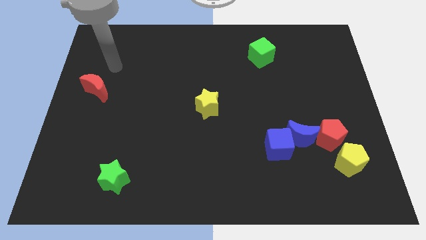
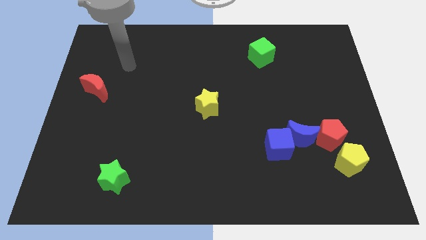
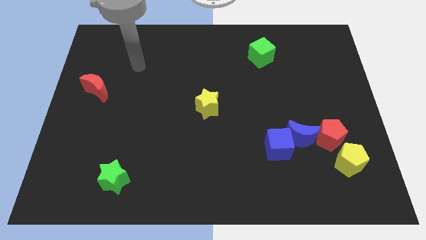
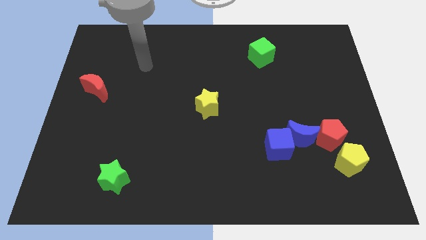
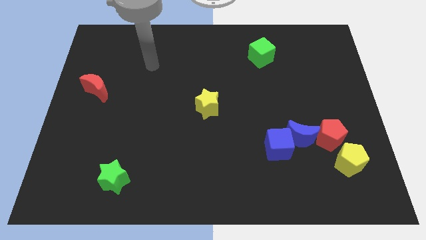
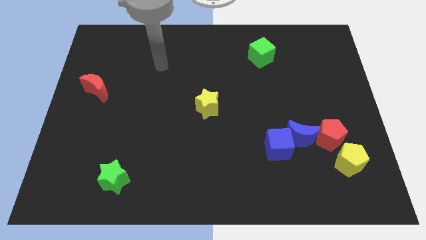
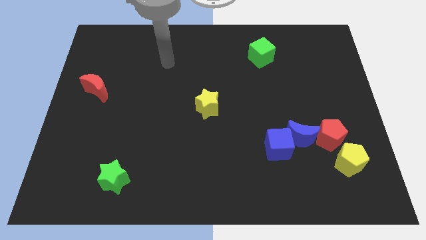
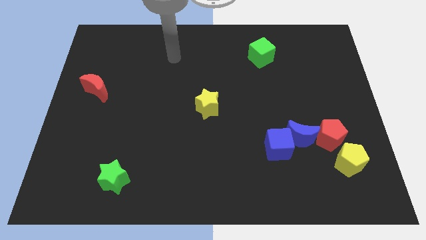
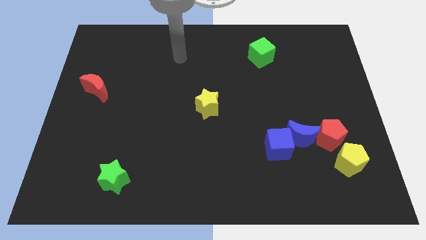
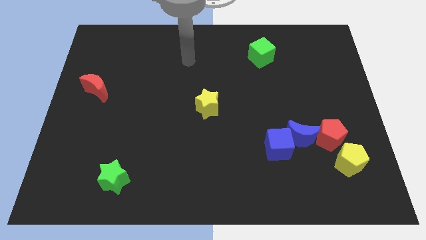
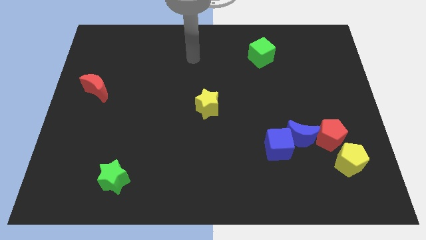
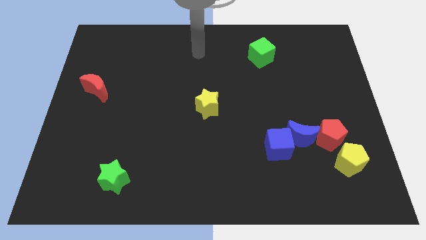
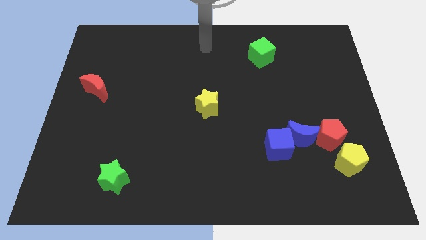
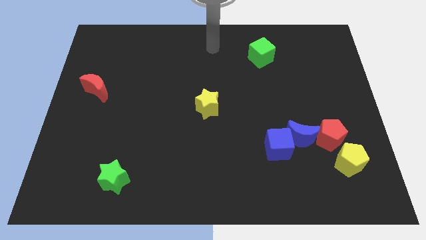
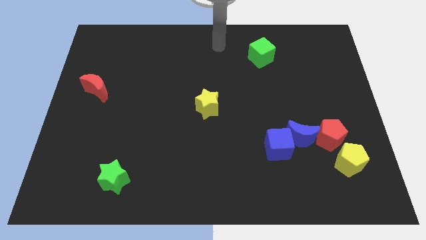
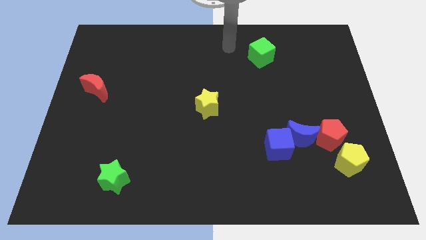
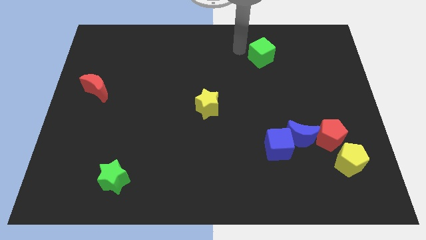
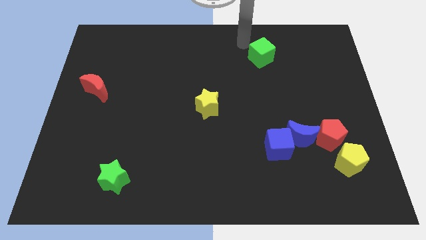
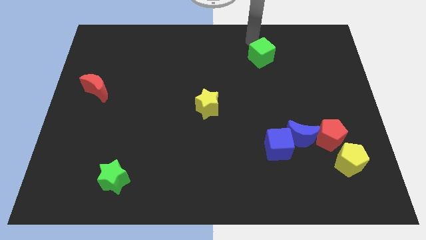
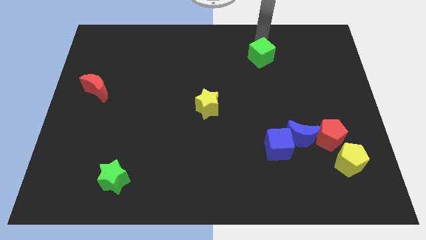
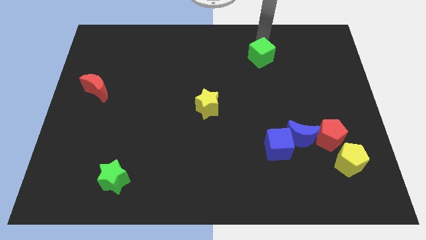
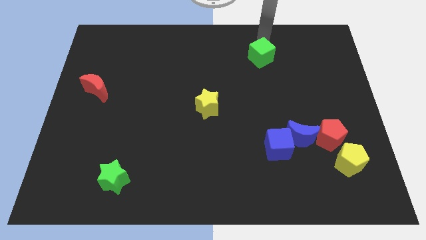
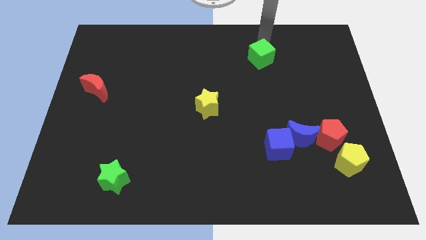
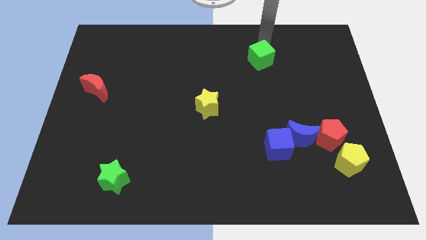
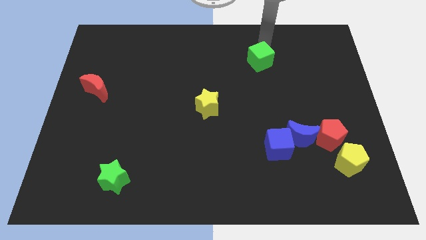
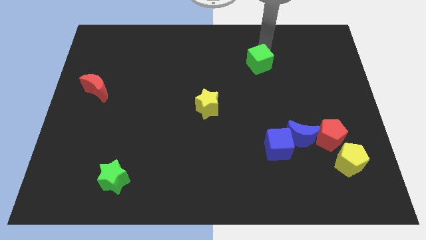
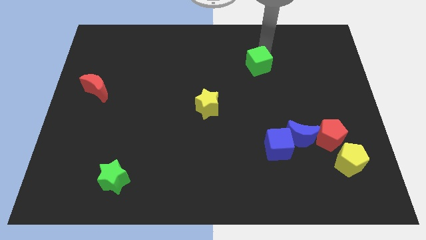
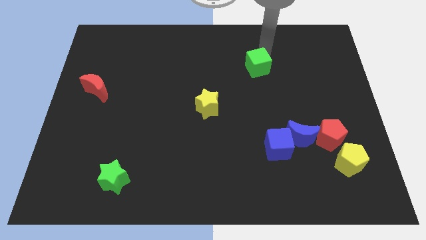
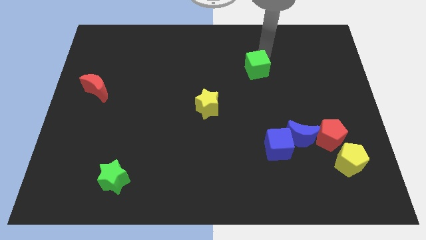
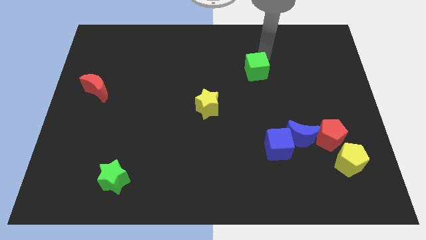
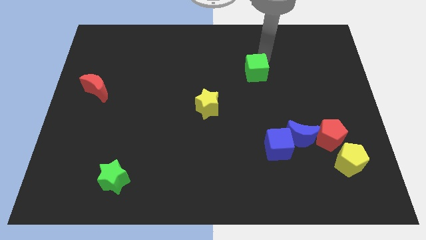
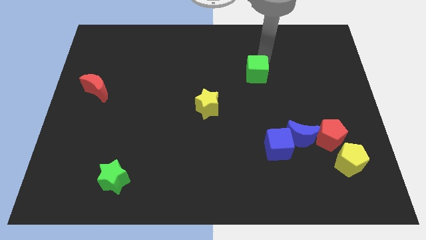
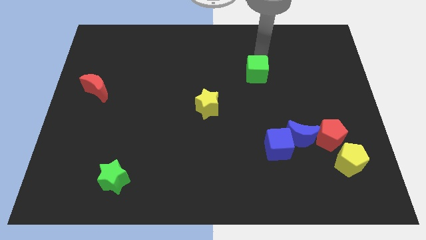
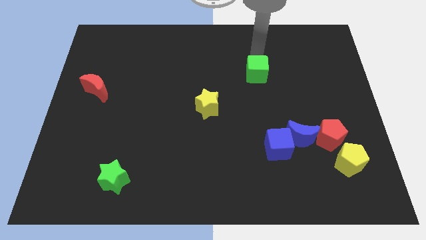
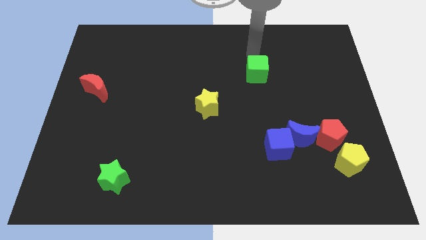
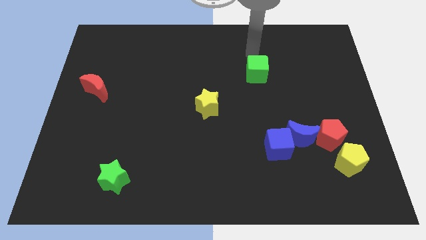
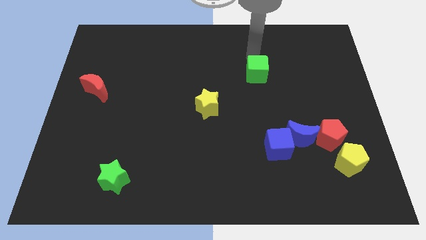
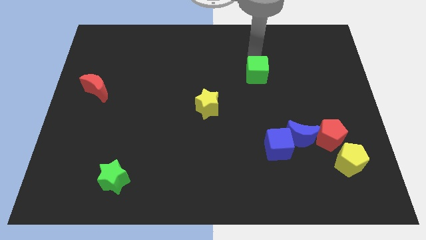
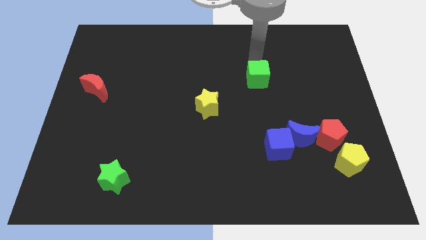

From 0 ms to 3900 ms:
slide the green cube down a little

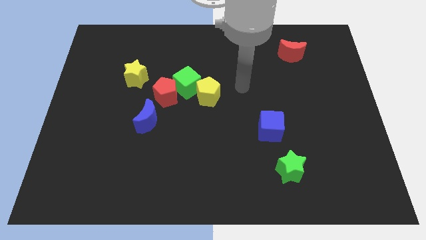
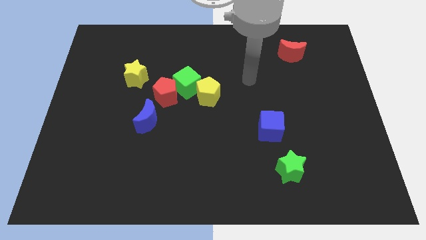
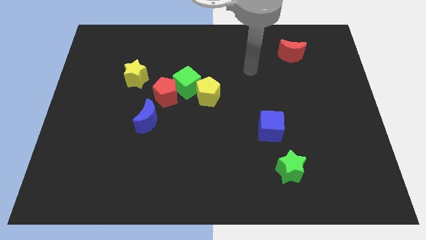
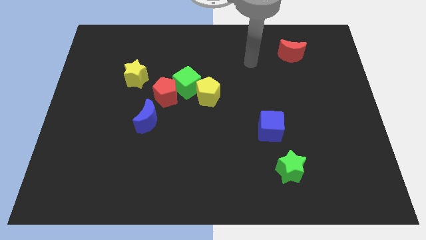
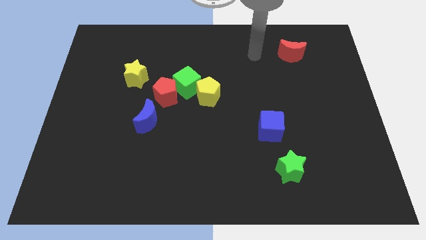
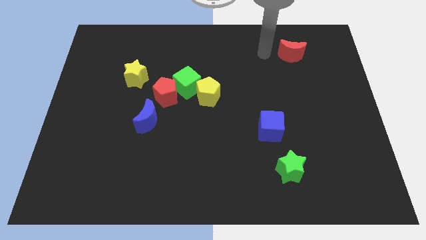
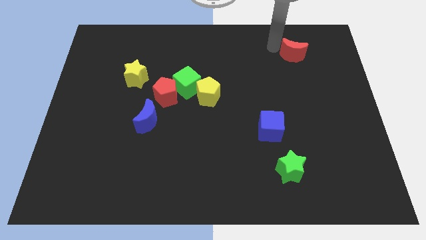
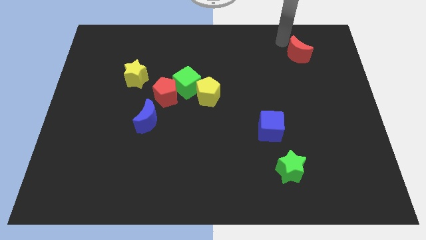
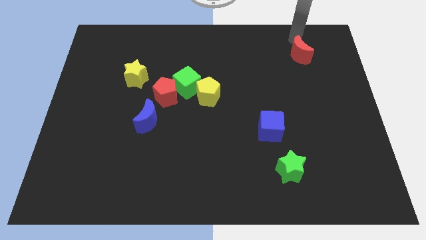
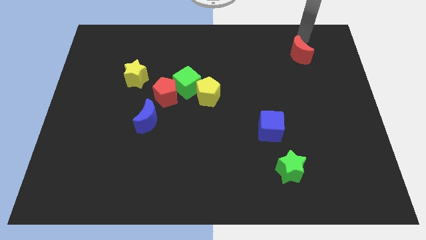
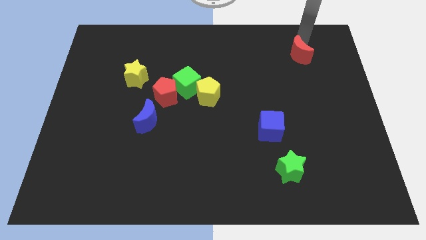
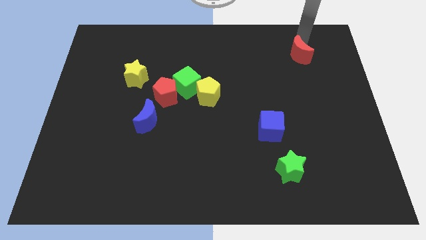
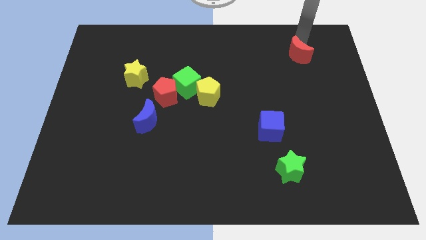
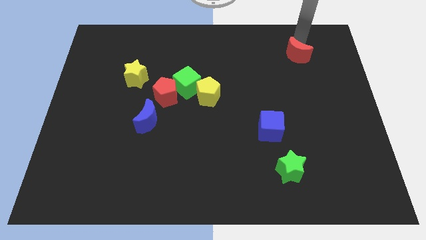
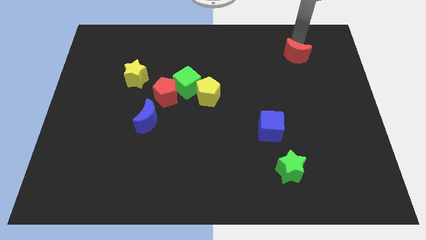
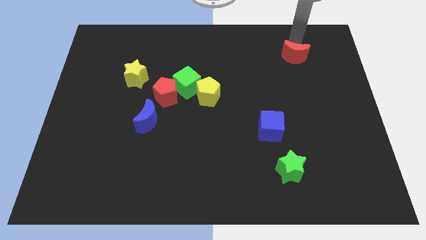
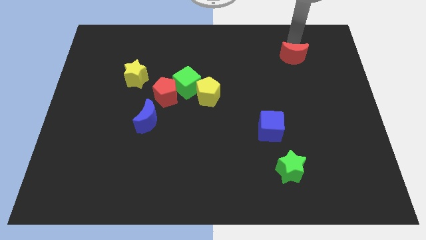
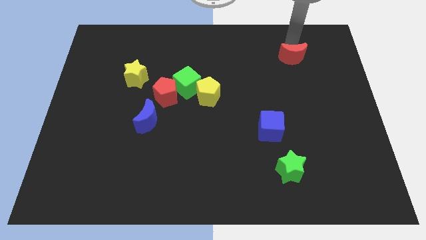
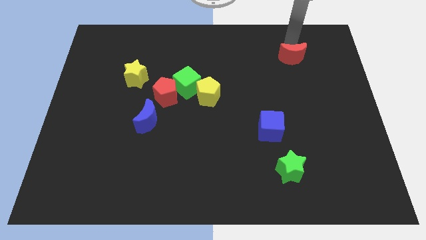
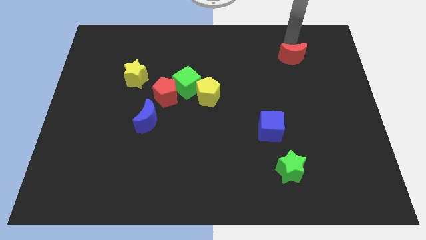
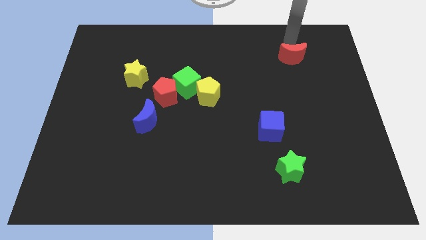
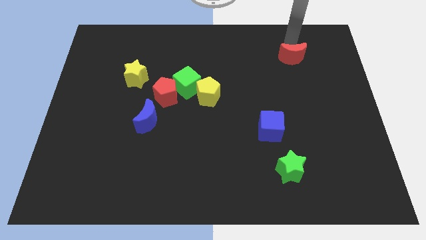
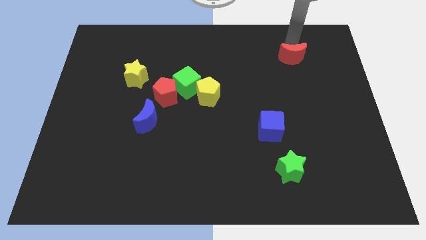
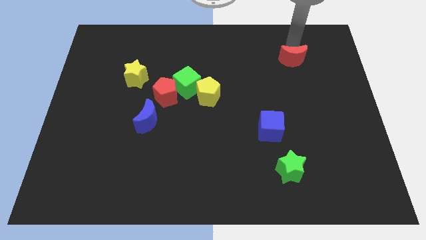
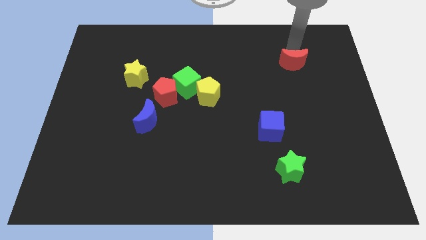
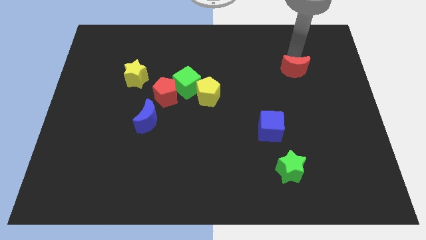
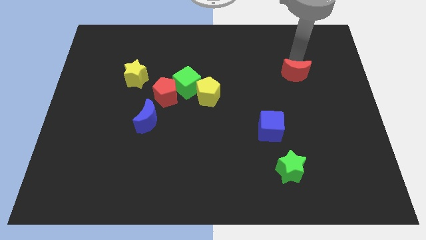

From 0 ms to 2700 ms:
slide the red moon a little bit downwards

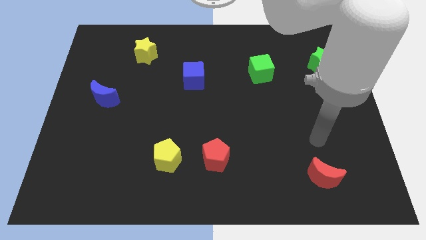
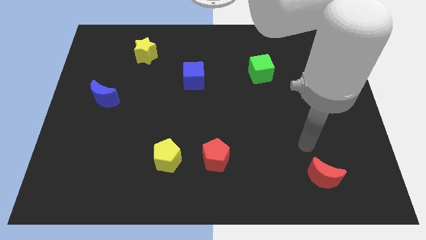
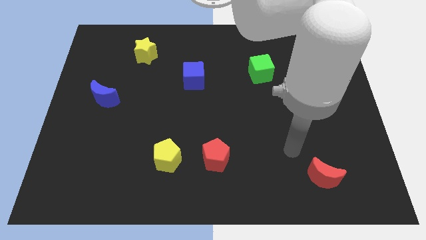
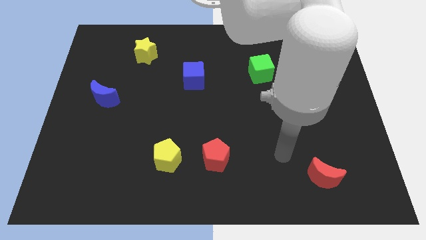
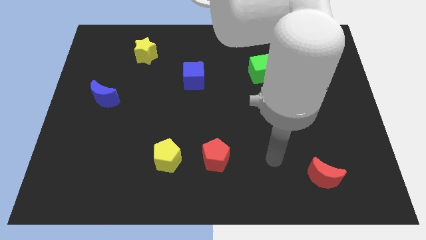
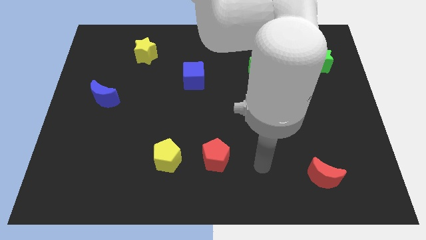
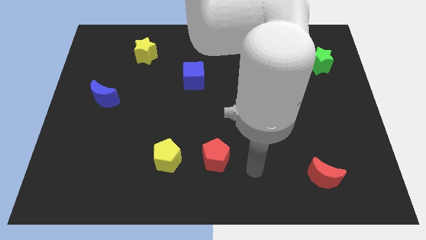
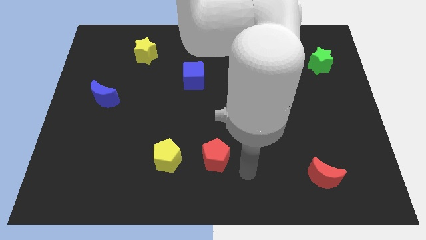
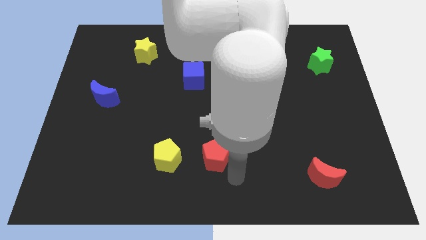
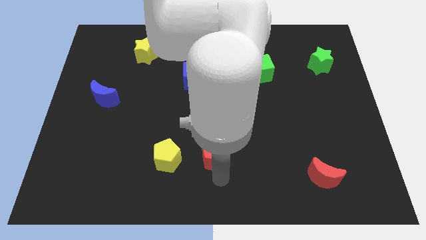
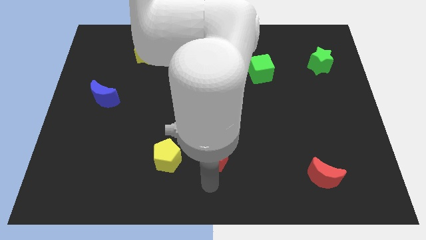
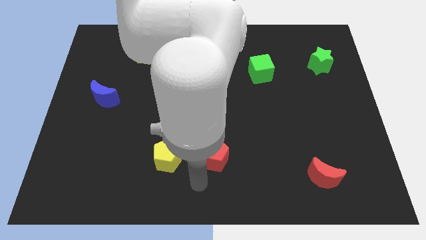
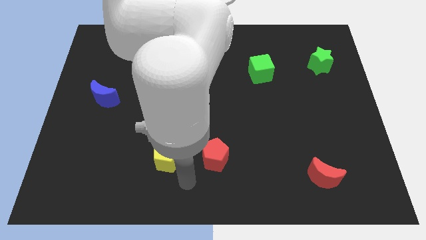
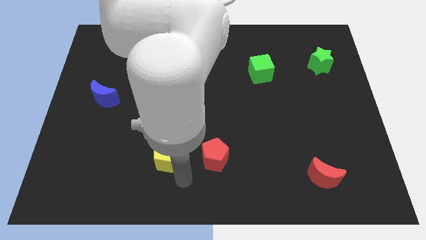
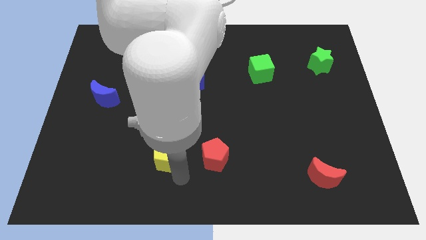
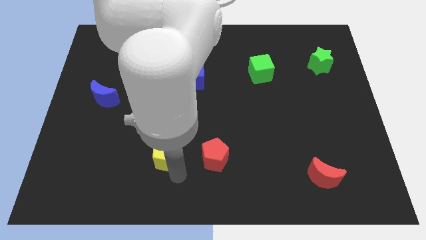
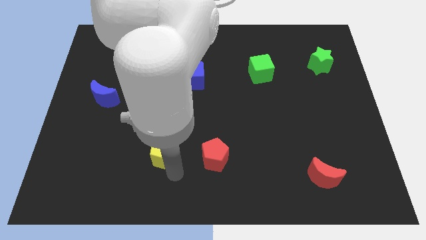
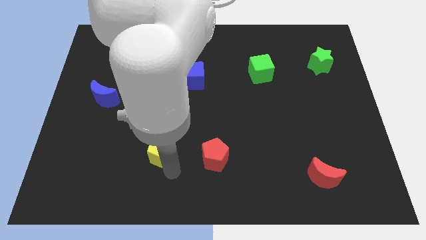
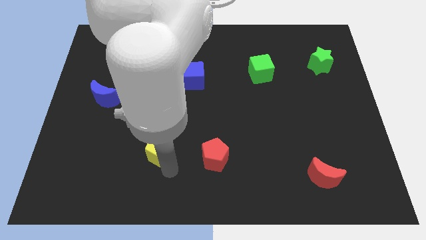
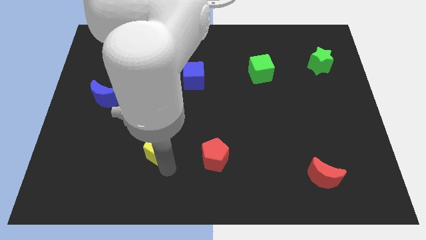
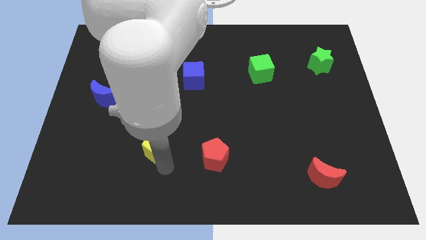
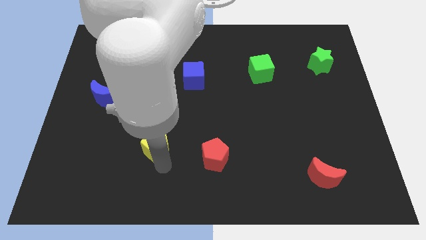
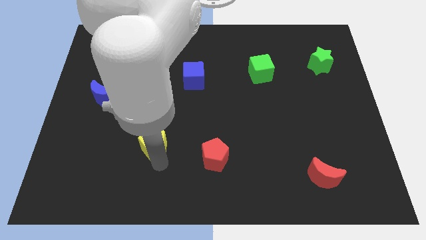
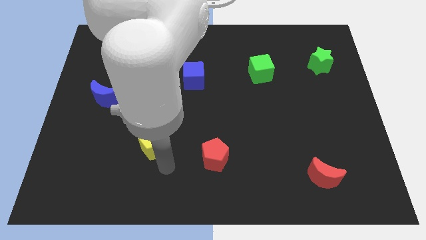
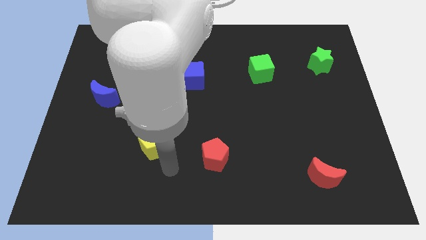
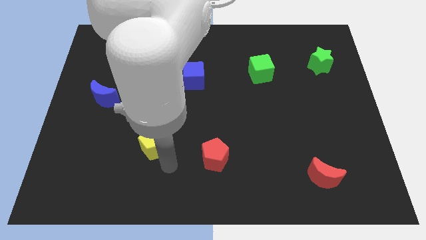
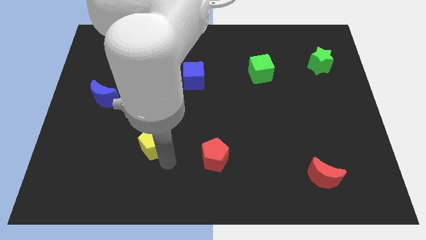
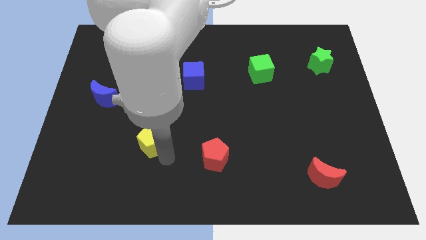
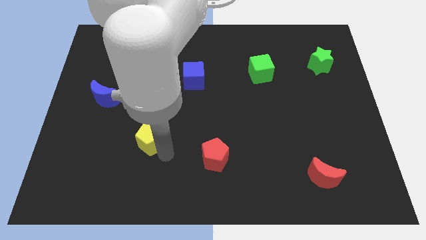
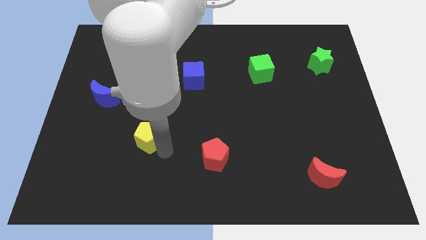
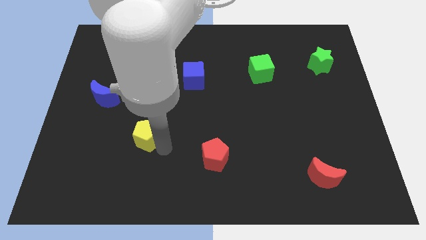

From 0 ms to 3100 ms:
move the yellow pentagon somewhat up and to the left
